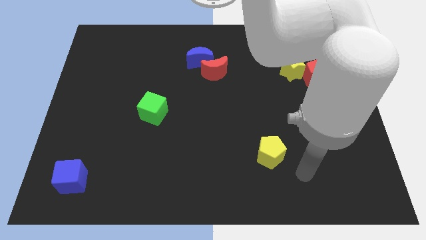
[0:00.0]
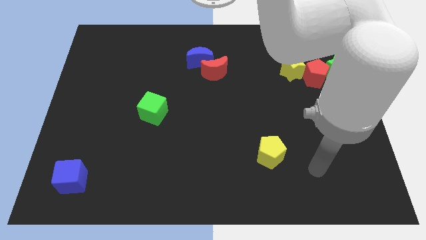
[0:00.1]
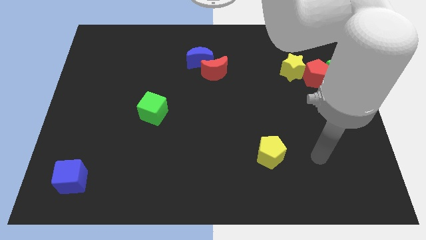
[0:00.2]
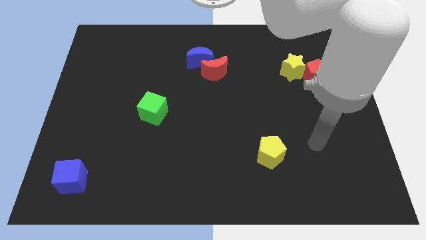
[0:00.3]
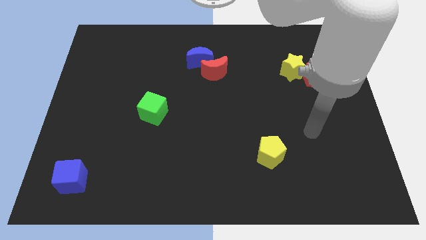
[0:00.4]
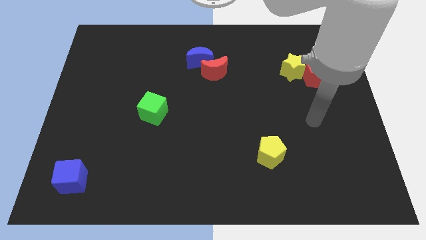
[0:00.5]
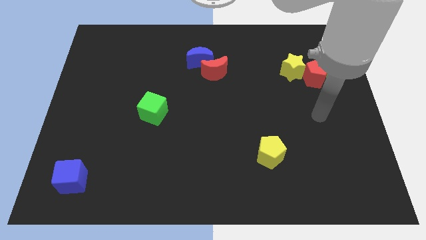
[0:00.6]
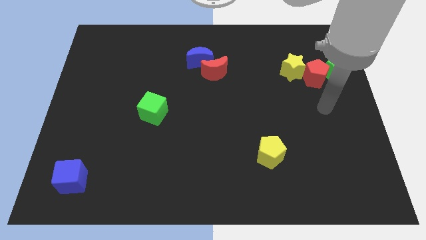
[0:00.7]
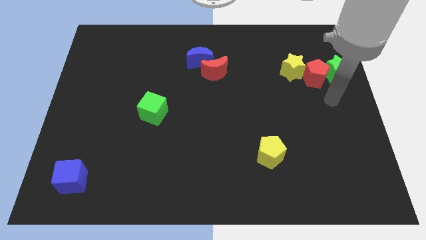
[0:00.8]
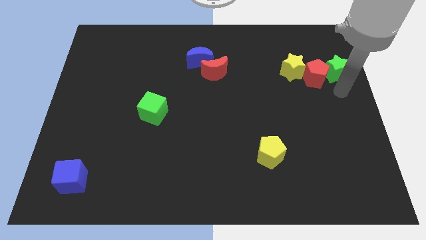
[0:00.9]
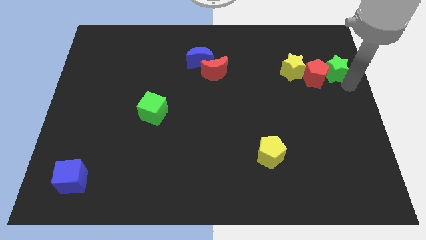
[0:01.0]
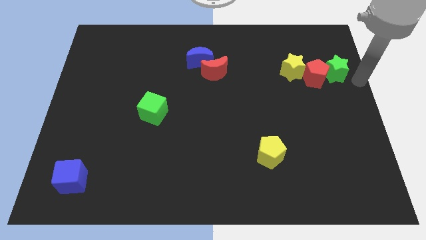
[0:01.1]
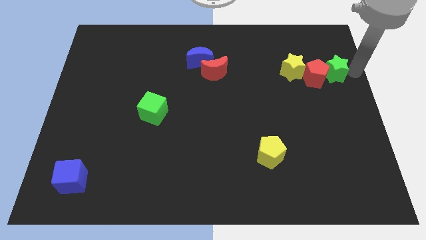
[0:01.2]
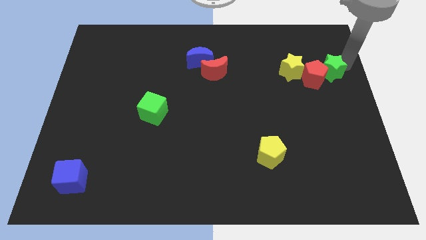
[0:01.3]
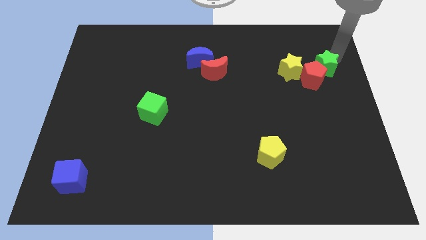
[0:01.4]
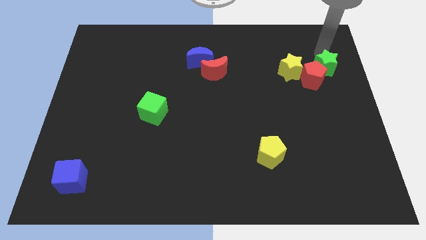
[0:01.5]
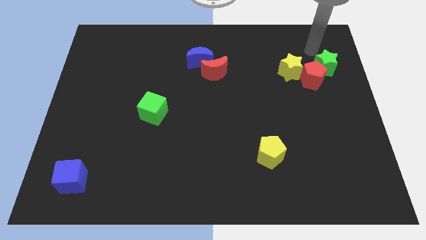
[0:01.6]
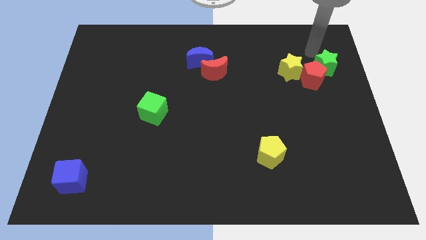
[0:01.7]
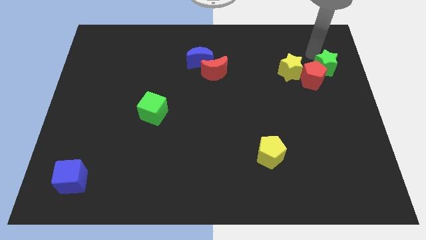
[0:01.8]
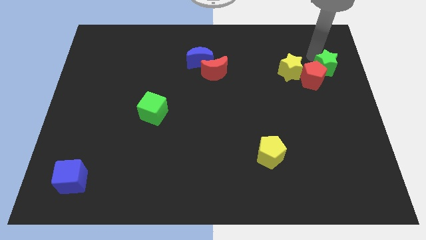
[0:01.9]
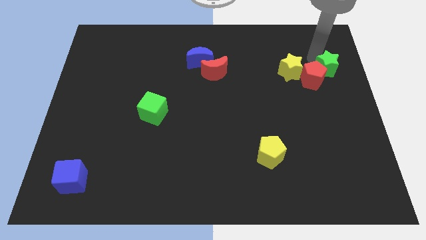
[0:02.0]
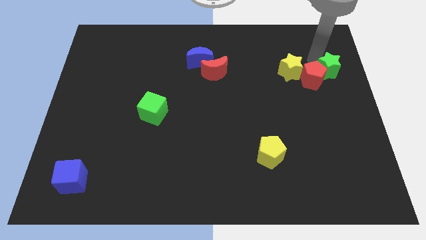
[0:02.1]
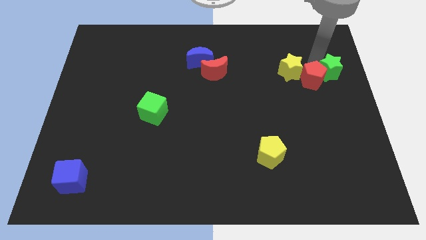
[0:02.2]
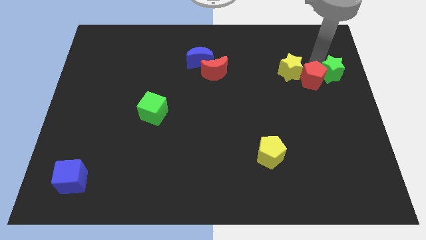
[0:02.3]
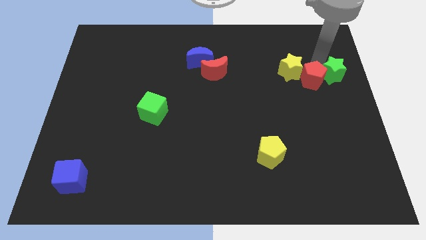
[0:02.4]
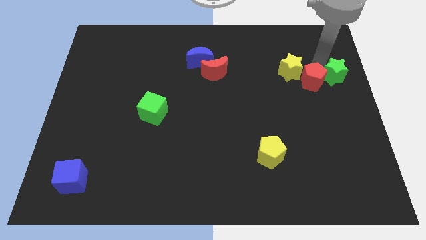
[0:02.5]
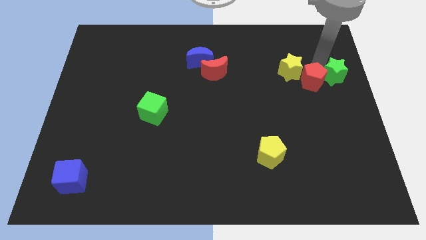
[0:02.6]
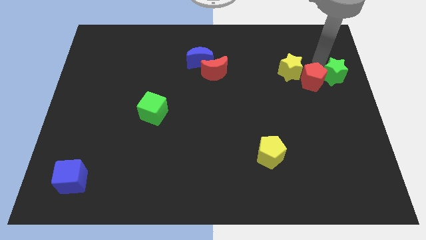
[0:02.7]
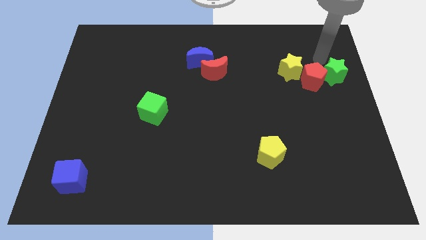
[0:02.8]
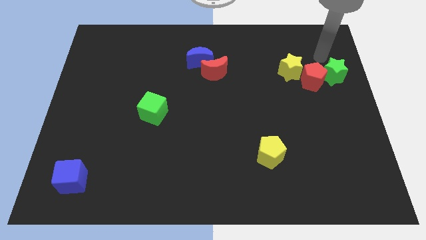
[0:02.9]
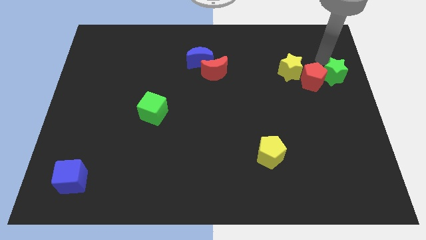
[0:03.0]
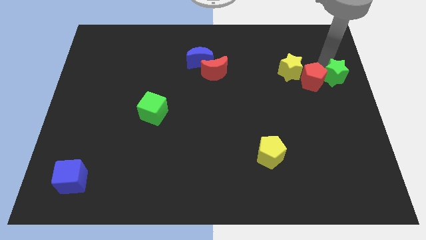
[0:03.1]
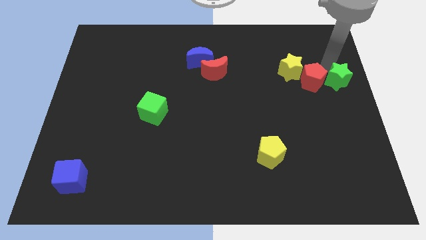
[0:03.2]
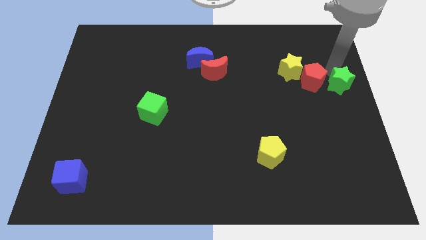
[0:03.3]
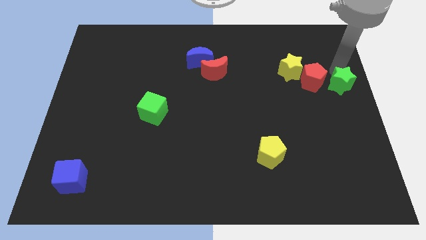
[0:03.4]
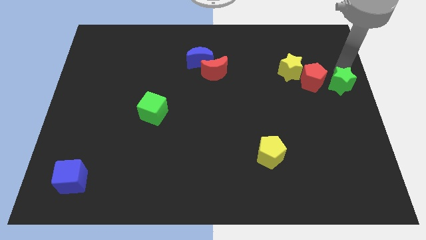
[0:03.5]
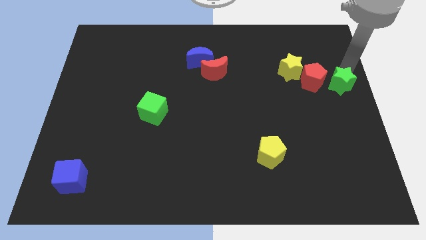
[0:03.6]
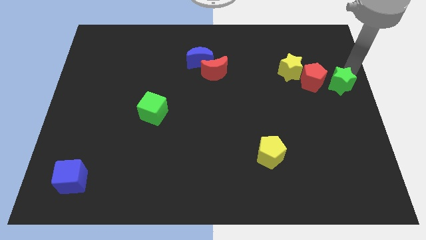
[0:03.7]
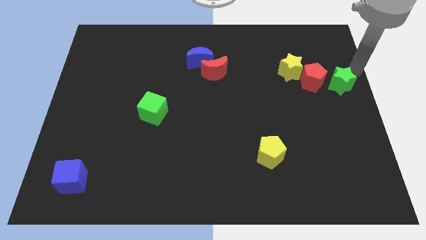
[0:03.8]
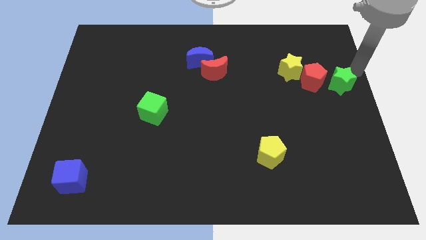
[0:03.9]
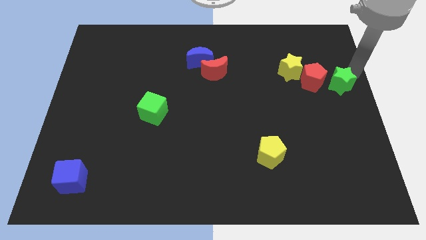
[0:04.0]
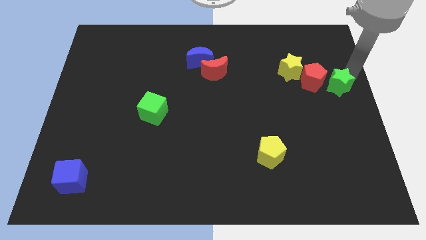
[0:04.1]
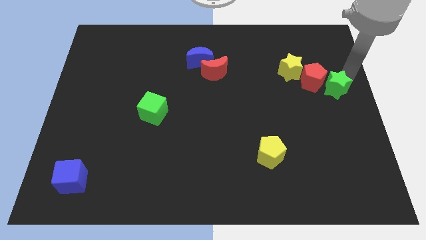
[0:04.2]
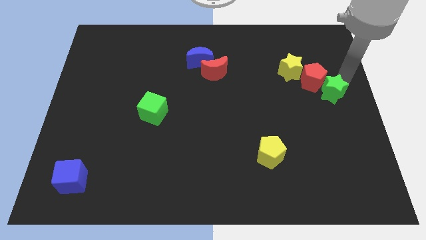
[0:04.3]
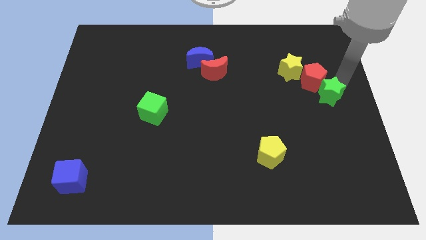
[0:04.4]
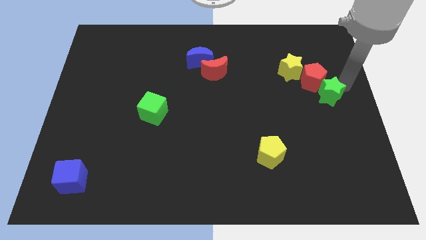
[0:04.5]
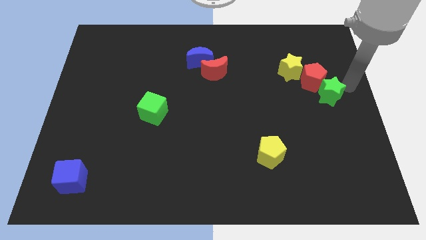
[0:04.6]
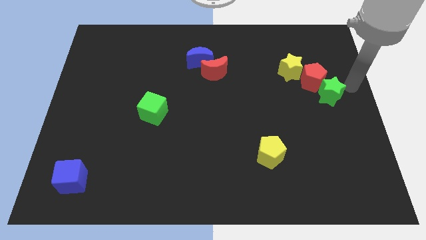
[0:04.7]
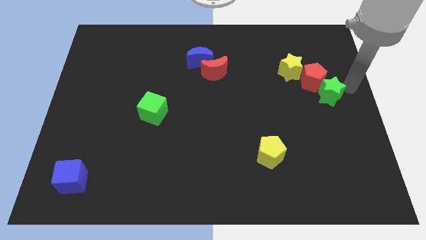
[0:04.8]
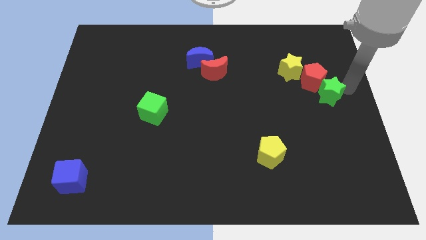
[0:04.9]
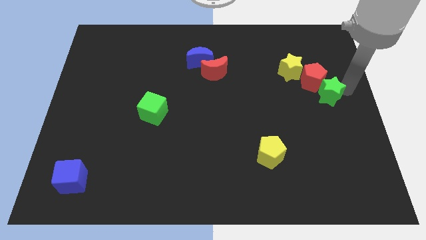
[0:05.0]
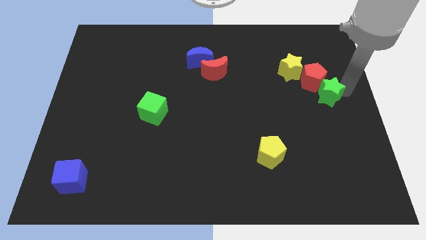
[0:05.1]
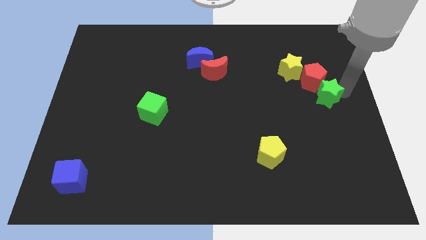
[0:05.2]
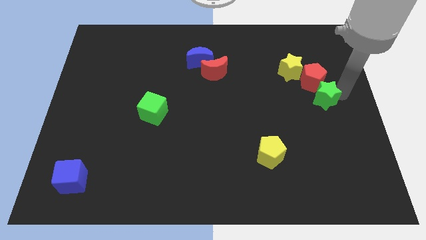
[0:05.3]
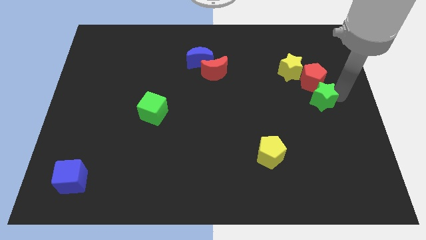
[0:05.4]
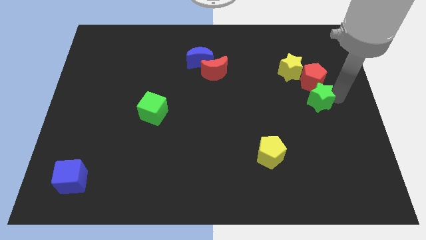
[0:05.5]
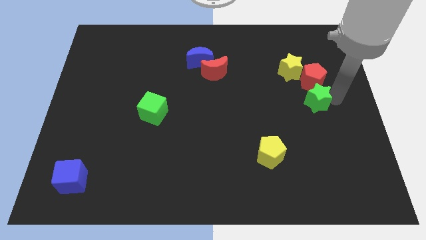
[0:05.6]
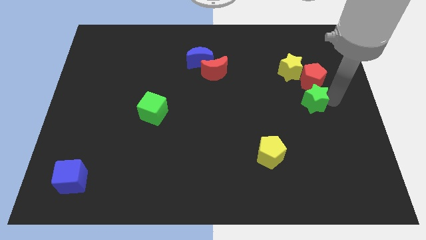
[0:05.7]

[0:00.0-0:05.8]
move the green star to the bottom of the yellow star
